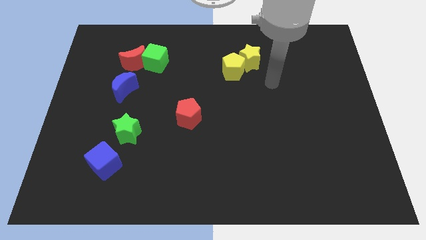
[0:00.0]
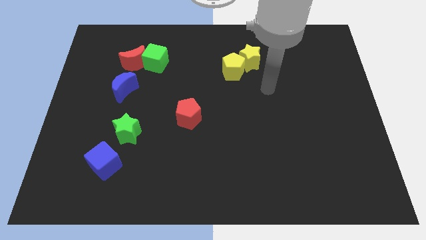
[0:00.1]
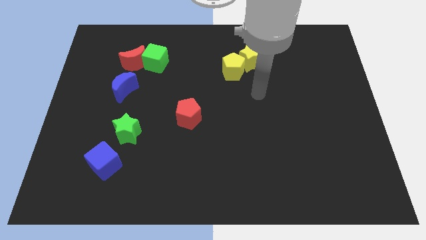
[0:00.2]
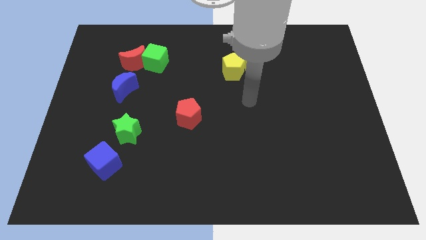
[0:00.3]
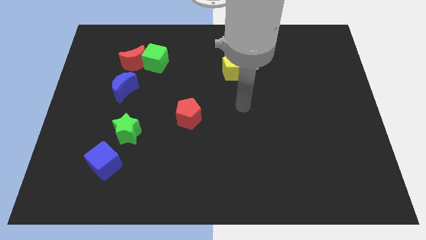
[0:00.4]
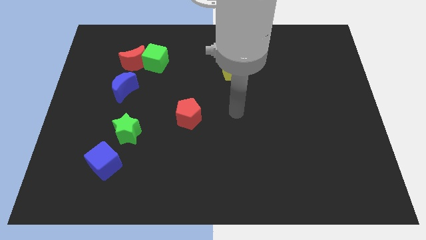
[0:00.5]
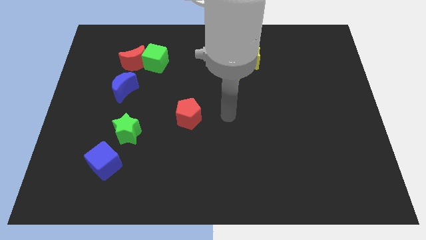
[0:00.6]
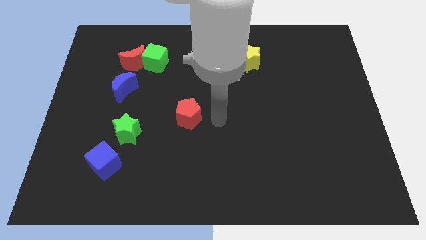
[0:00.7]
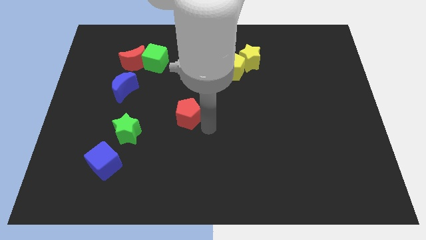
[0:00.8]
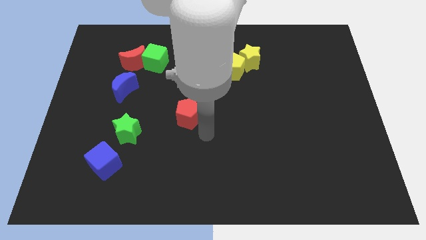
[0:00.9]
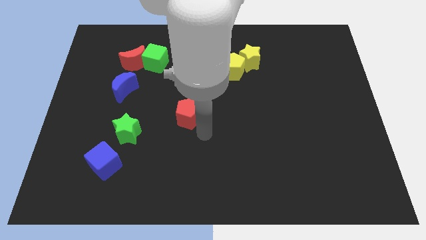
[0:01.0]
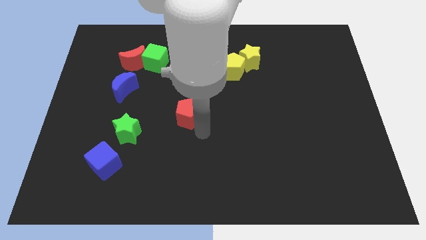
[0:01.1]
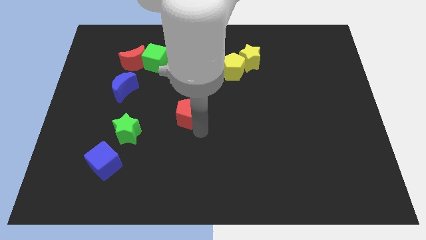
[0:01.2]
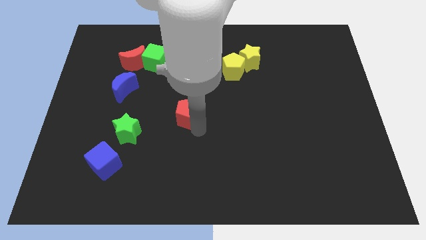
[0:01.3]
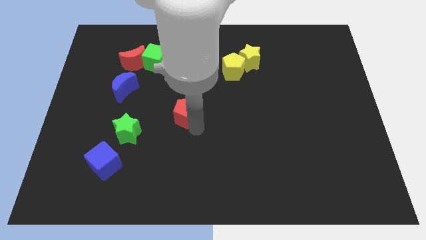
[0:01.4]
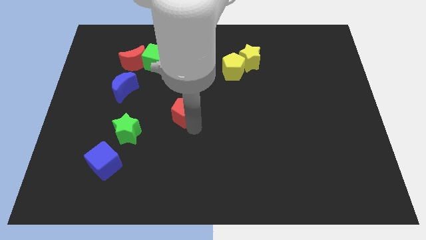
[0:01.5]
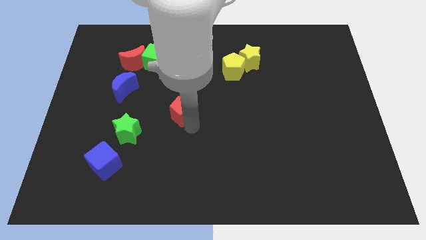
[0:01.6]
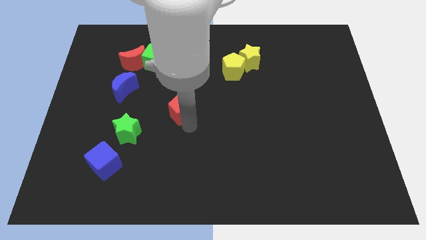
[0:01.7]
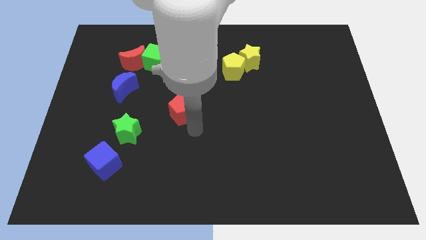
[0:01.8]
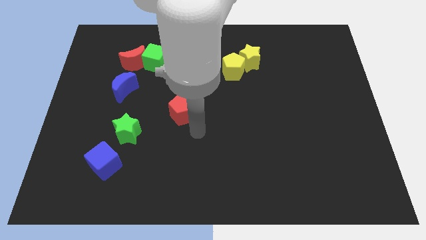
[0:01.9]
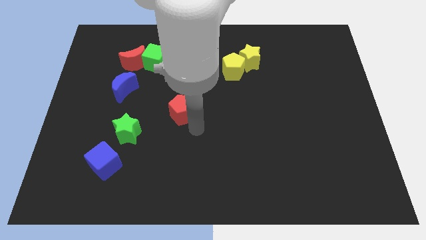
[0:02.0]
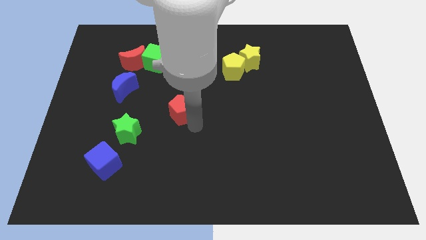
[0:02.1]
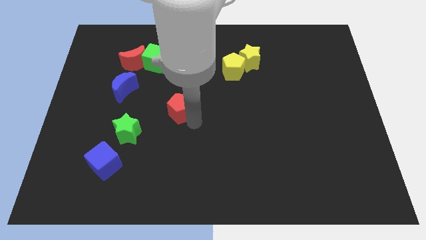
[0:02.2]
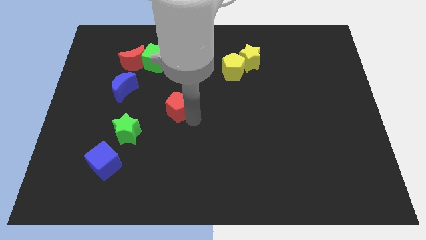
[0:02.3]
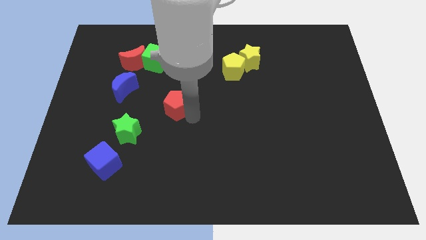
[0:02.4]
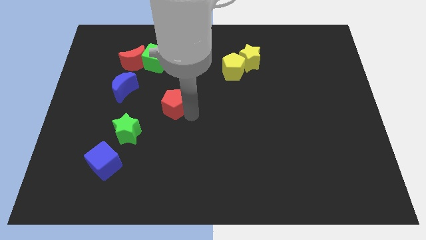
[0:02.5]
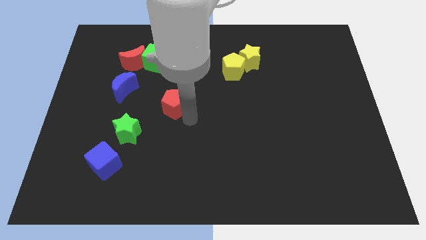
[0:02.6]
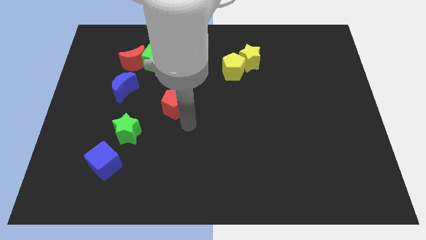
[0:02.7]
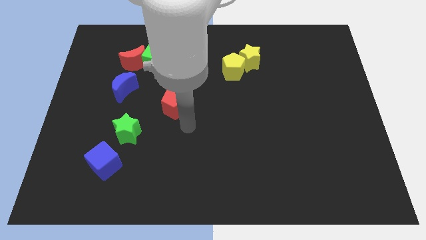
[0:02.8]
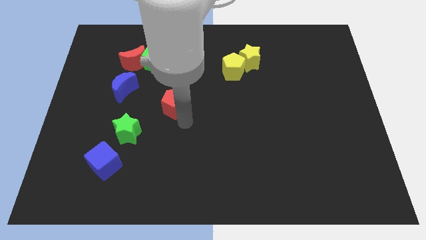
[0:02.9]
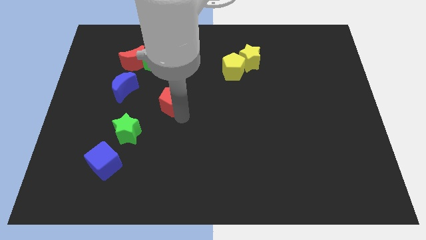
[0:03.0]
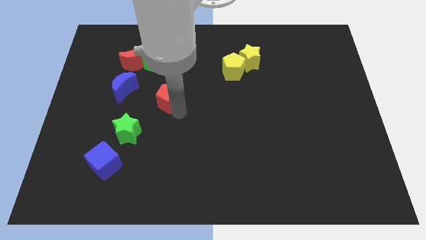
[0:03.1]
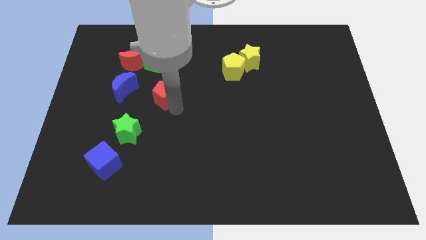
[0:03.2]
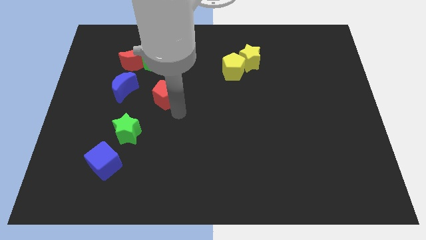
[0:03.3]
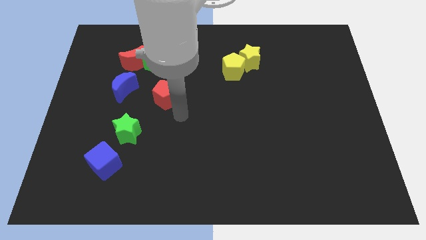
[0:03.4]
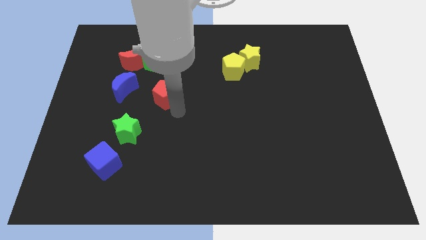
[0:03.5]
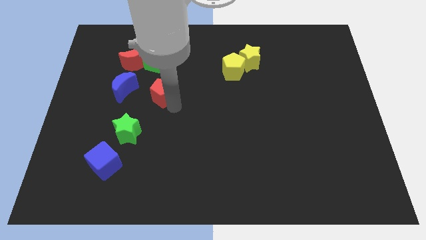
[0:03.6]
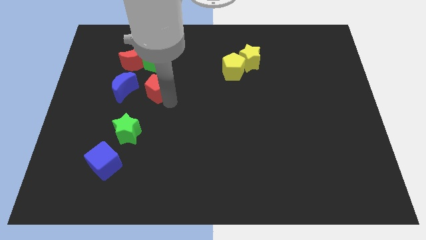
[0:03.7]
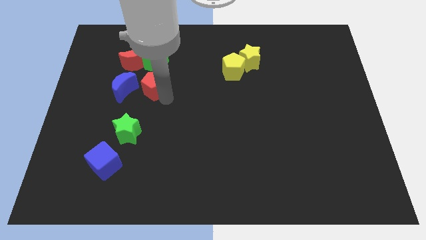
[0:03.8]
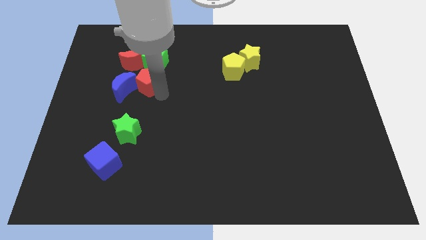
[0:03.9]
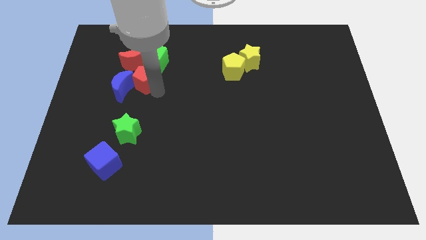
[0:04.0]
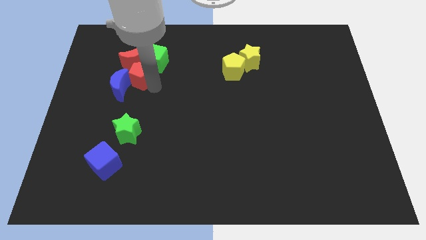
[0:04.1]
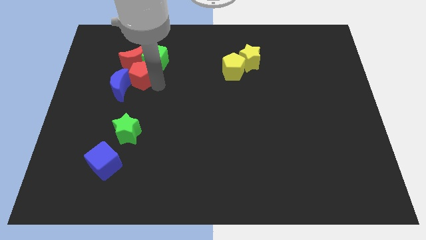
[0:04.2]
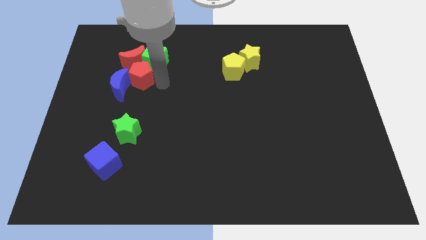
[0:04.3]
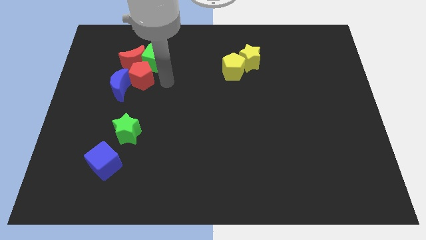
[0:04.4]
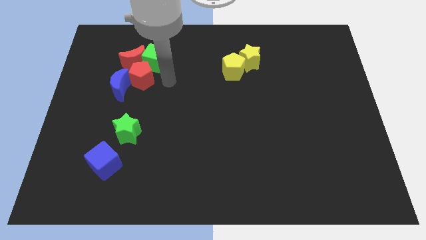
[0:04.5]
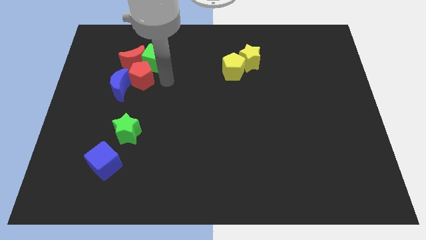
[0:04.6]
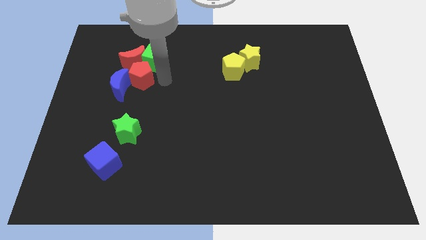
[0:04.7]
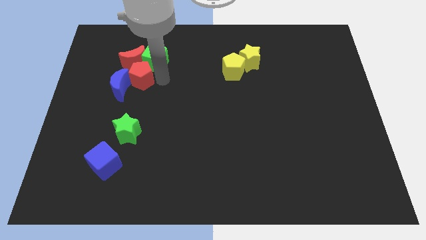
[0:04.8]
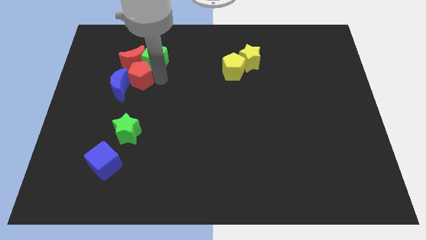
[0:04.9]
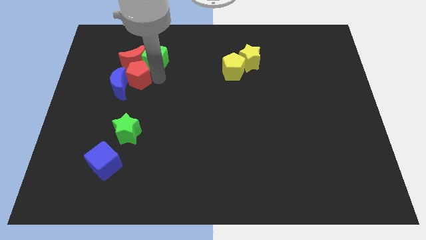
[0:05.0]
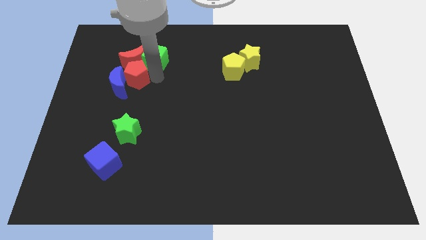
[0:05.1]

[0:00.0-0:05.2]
move the red pentagon diagonally down and to the left of the red moon

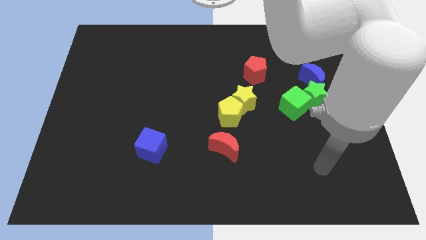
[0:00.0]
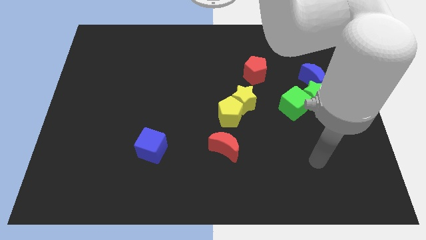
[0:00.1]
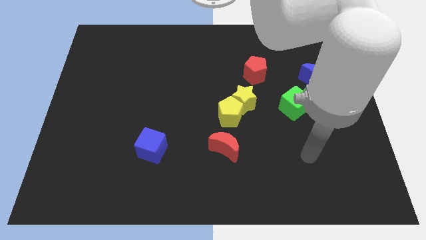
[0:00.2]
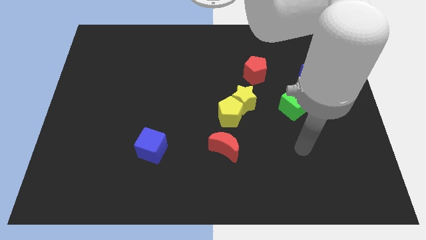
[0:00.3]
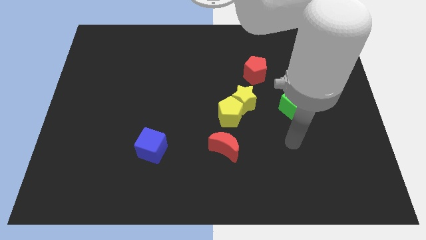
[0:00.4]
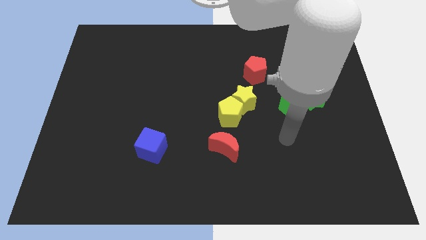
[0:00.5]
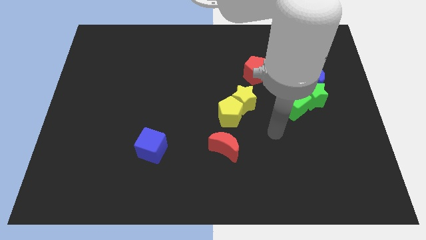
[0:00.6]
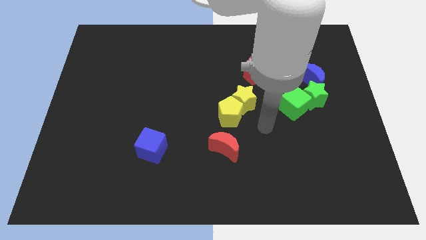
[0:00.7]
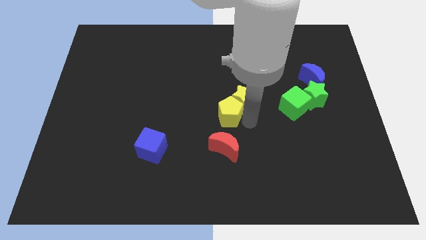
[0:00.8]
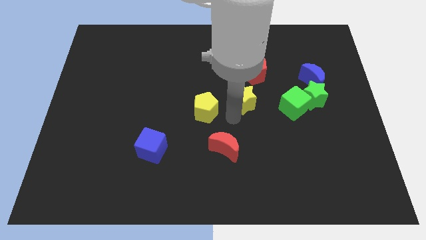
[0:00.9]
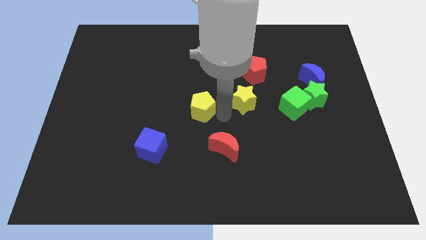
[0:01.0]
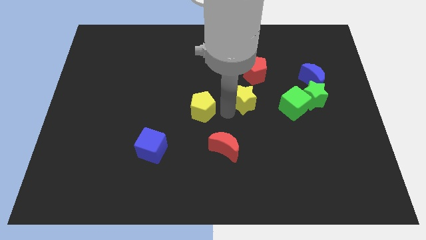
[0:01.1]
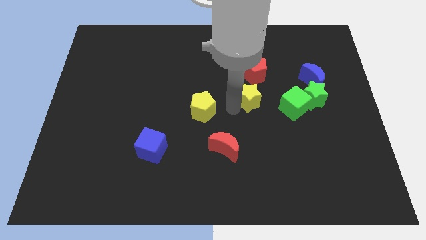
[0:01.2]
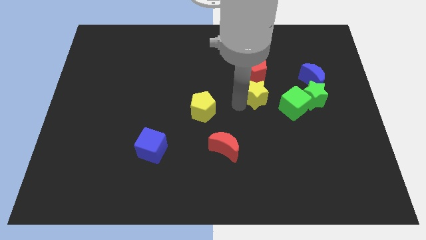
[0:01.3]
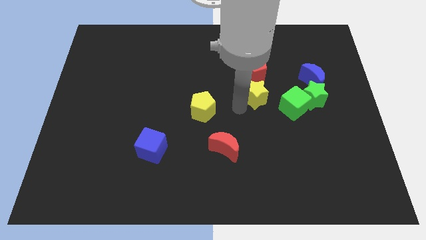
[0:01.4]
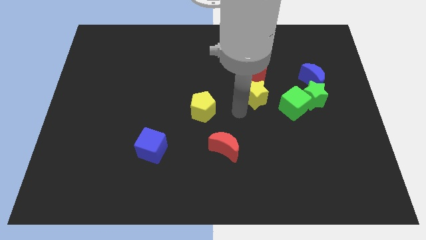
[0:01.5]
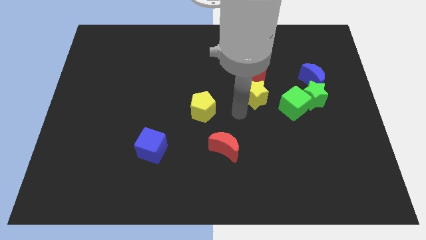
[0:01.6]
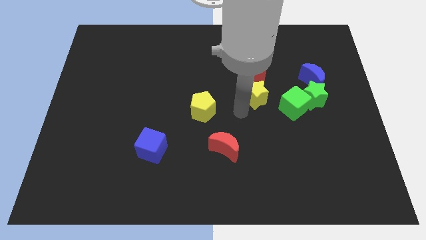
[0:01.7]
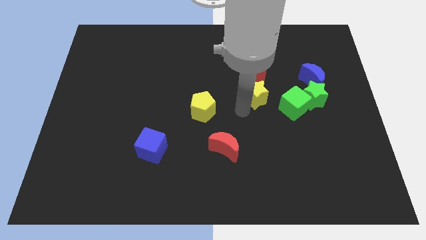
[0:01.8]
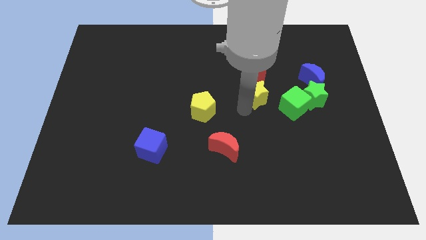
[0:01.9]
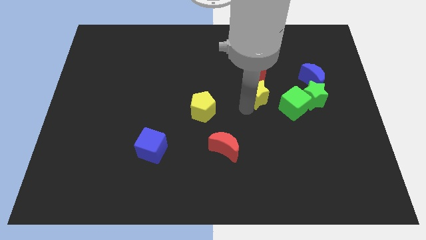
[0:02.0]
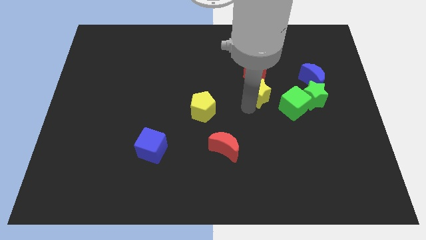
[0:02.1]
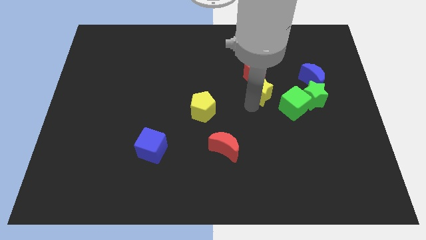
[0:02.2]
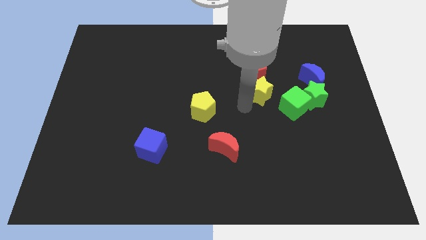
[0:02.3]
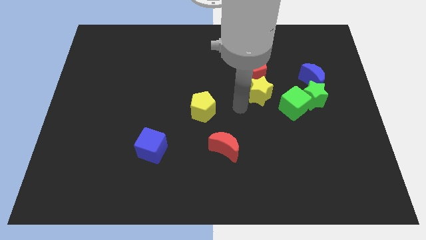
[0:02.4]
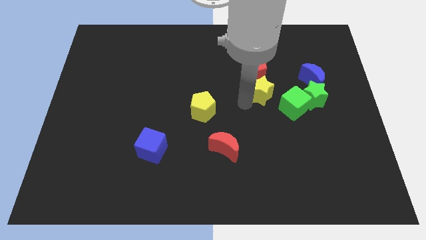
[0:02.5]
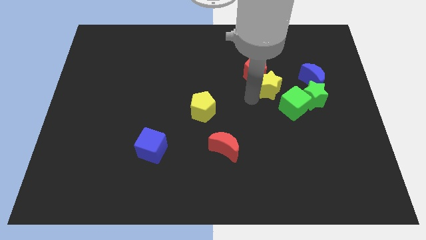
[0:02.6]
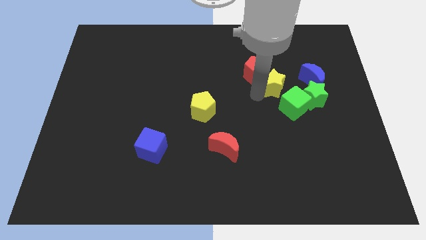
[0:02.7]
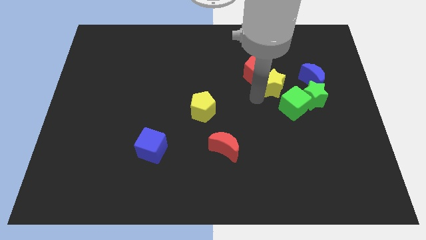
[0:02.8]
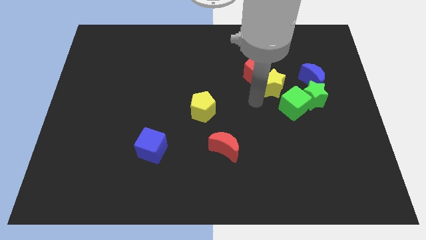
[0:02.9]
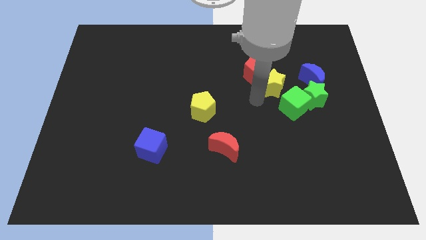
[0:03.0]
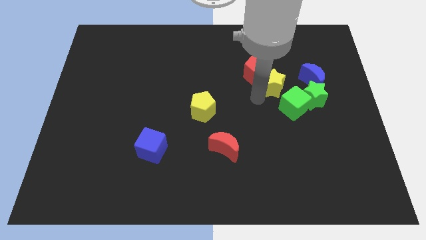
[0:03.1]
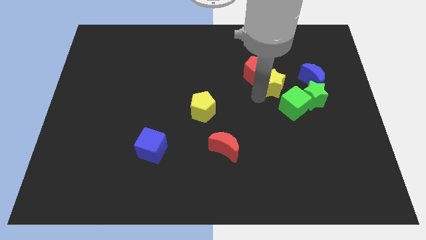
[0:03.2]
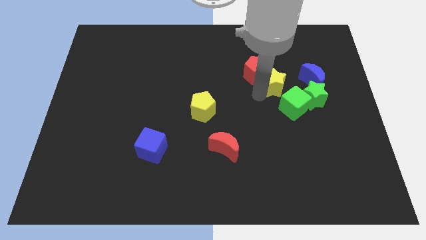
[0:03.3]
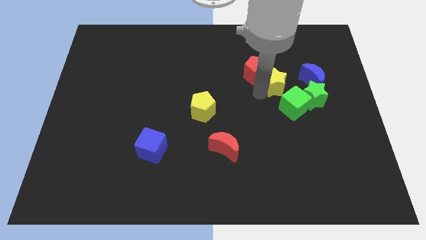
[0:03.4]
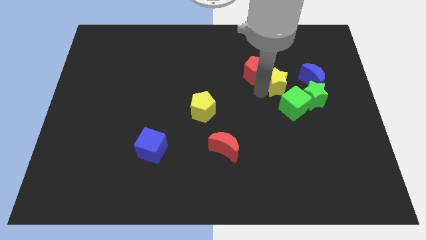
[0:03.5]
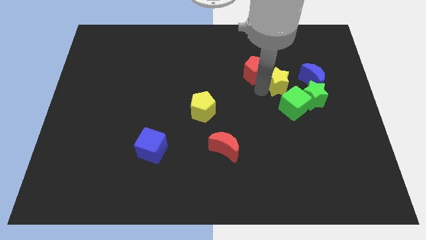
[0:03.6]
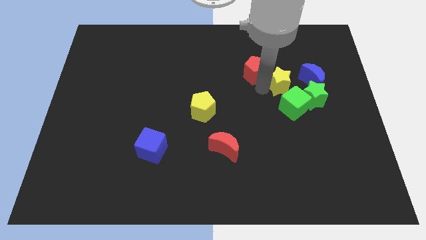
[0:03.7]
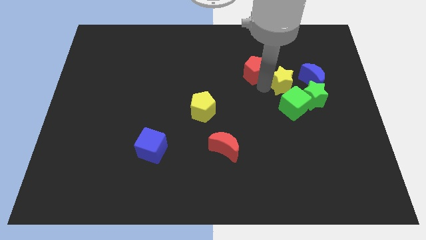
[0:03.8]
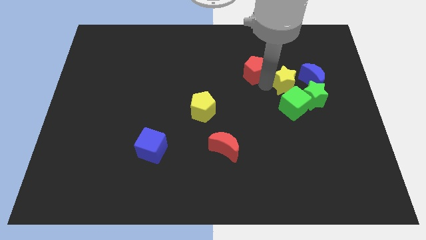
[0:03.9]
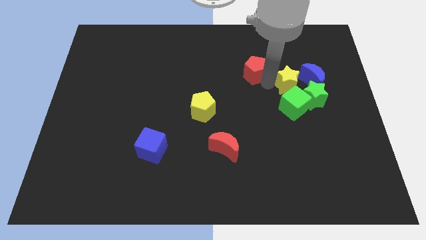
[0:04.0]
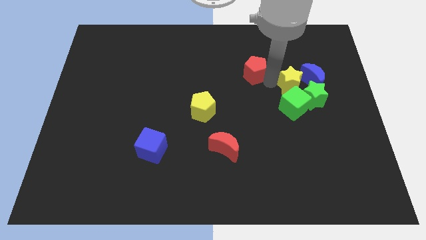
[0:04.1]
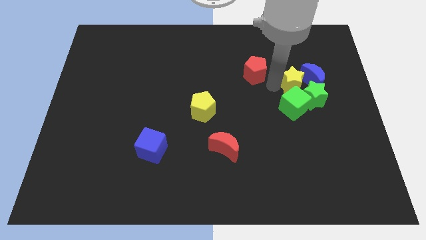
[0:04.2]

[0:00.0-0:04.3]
push the yellow star diagonally up and to the left of the blue moon
